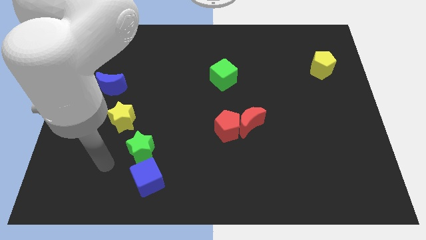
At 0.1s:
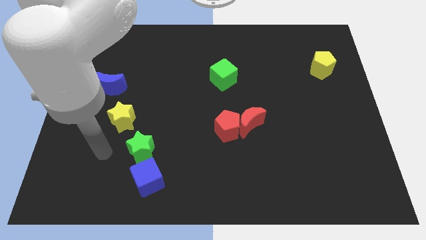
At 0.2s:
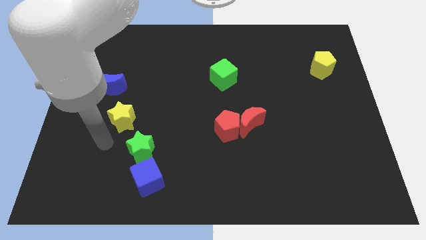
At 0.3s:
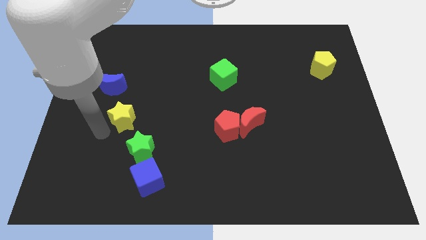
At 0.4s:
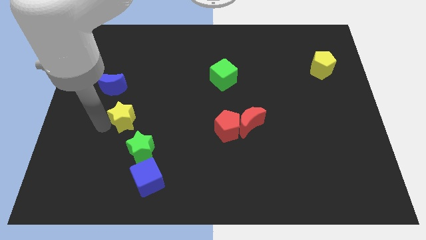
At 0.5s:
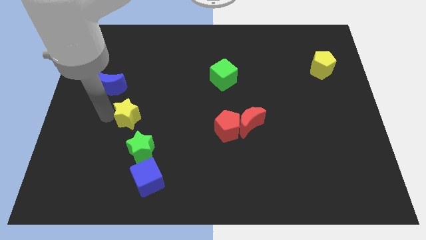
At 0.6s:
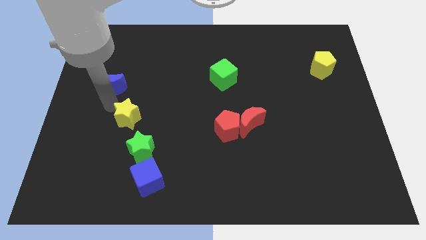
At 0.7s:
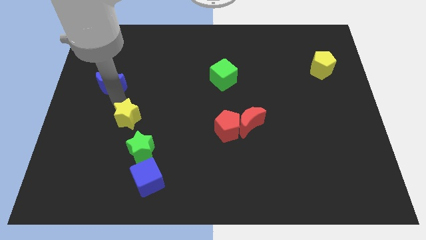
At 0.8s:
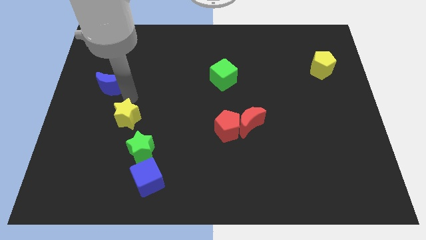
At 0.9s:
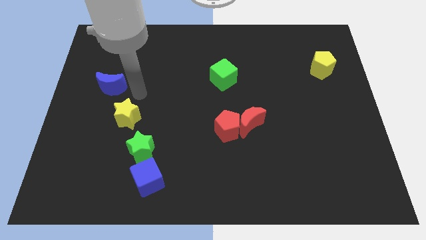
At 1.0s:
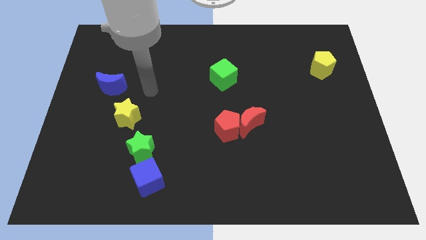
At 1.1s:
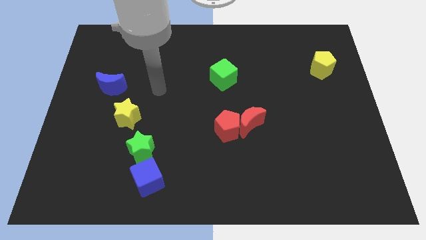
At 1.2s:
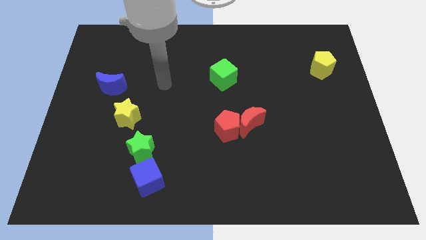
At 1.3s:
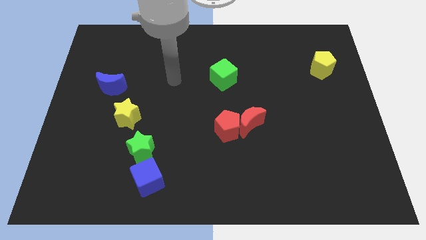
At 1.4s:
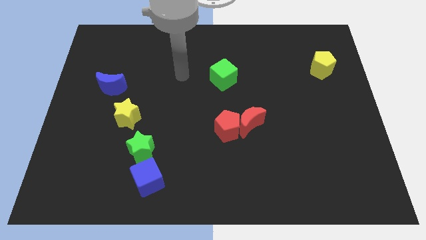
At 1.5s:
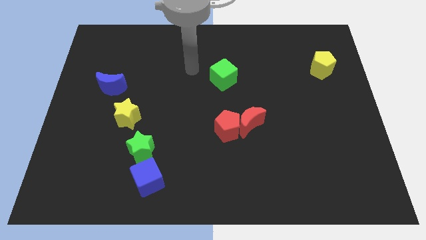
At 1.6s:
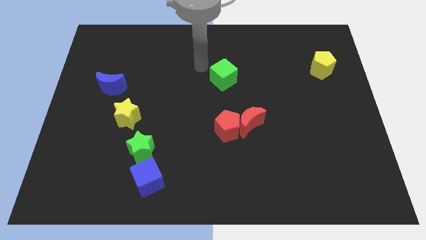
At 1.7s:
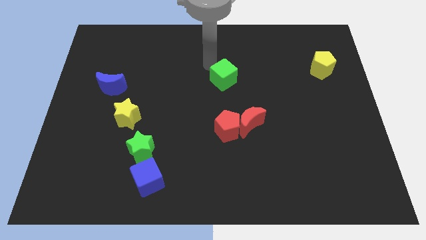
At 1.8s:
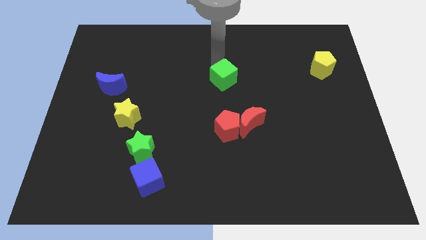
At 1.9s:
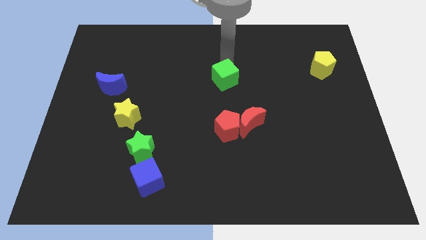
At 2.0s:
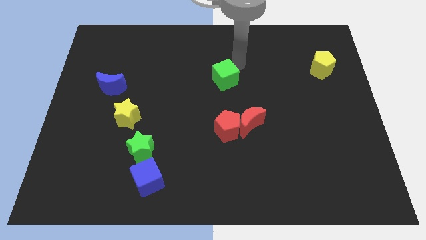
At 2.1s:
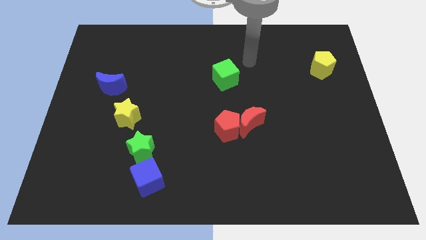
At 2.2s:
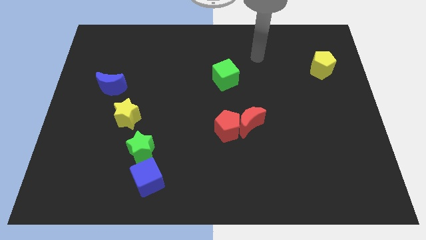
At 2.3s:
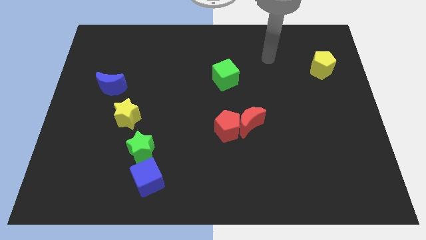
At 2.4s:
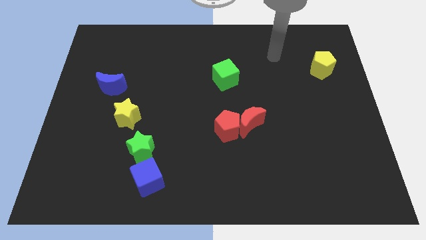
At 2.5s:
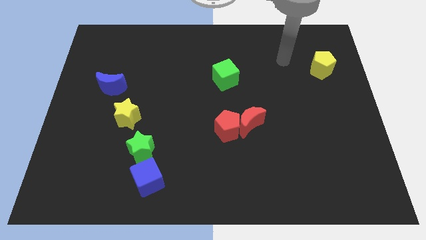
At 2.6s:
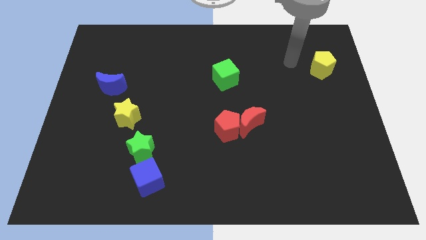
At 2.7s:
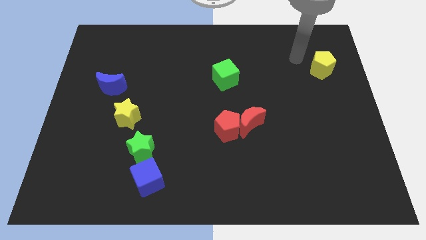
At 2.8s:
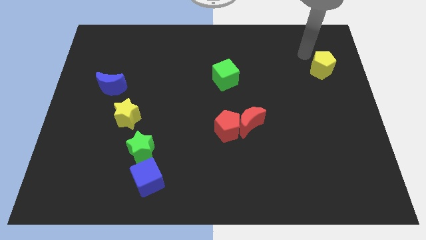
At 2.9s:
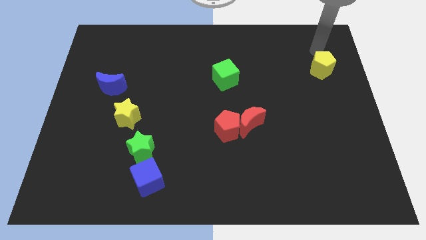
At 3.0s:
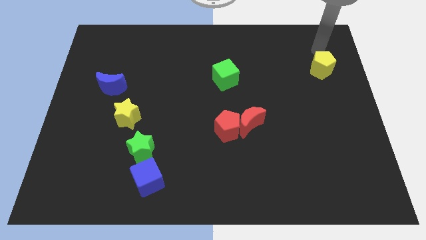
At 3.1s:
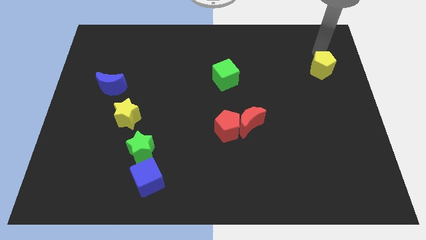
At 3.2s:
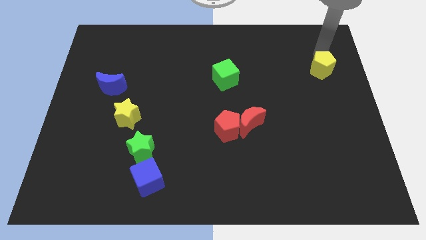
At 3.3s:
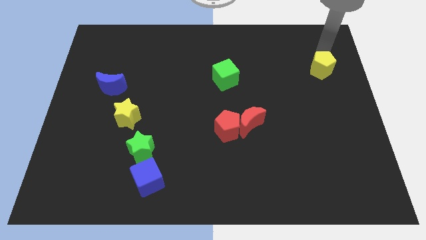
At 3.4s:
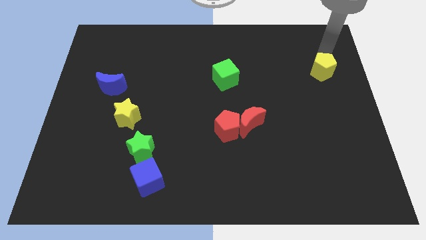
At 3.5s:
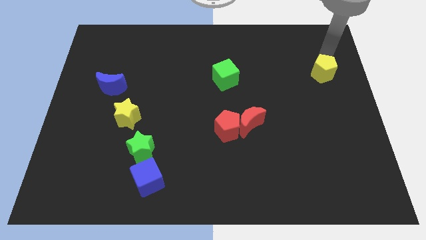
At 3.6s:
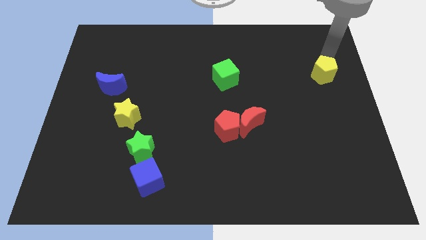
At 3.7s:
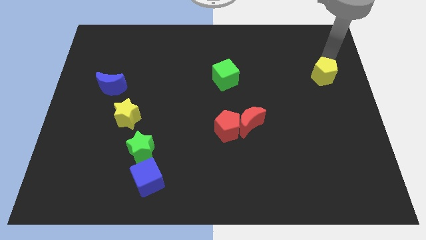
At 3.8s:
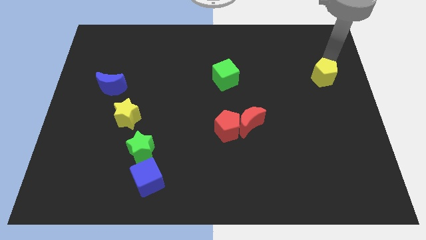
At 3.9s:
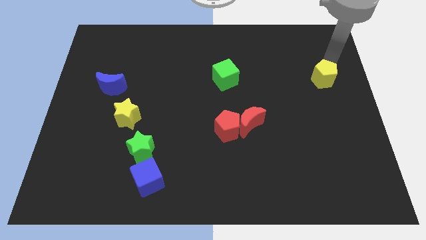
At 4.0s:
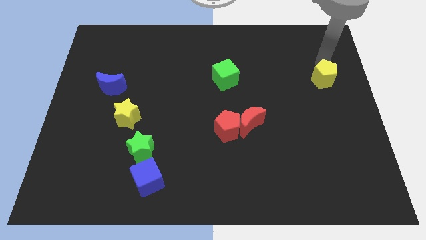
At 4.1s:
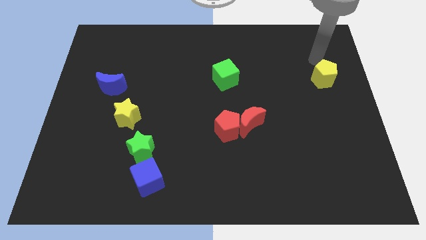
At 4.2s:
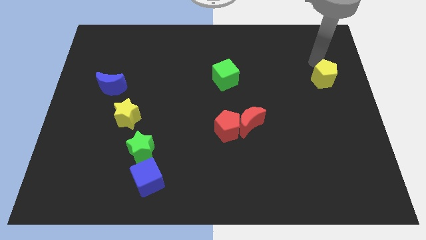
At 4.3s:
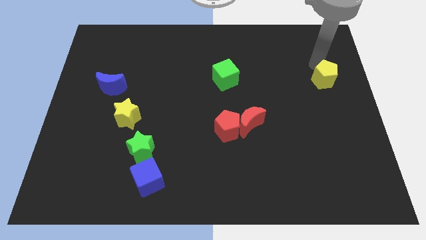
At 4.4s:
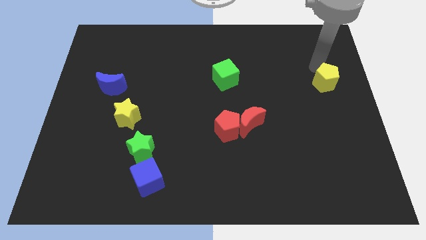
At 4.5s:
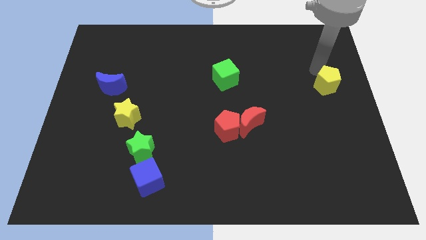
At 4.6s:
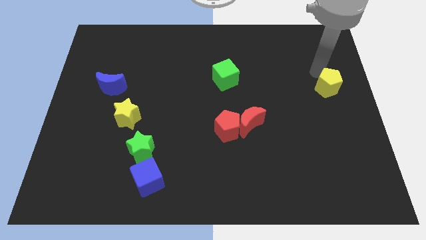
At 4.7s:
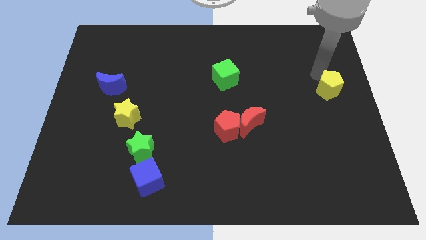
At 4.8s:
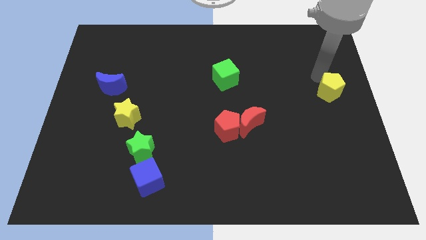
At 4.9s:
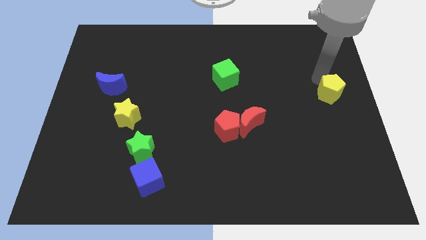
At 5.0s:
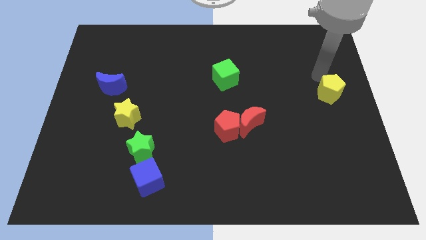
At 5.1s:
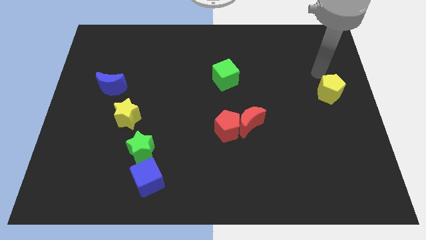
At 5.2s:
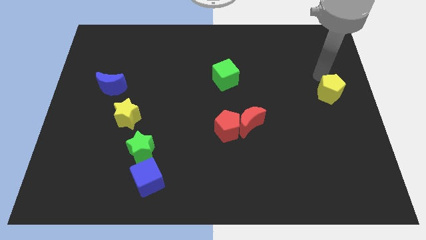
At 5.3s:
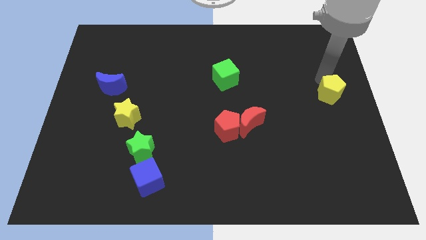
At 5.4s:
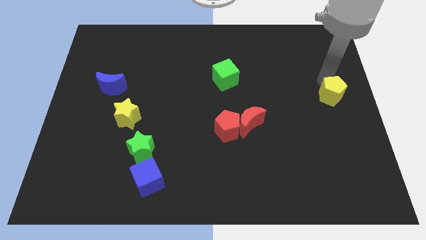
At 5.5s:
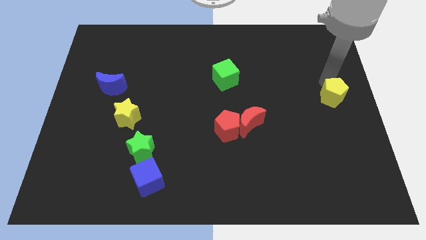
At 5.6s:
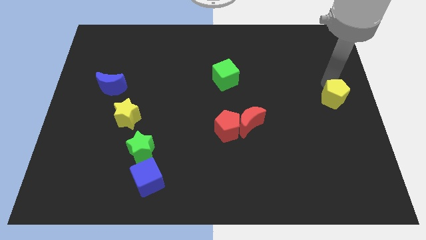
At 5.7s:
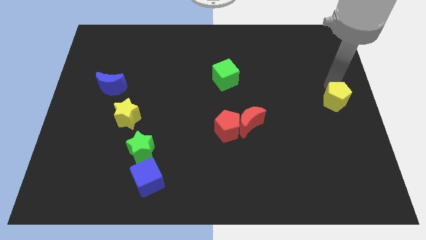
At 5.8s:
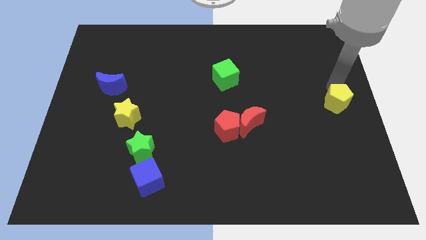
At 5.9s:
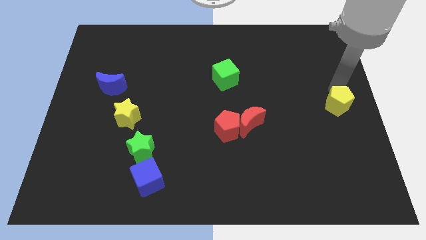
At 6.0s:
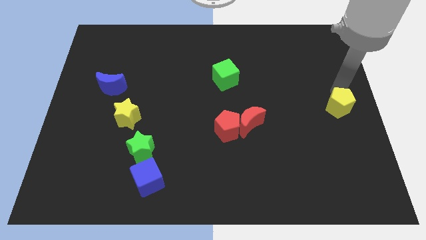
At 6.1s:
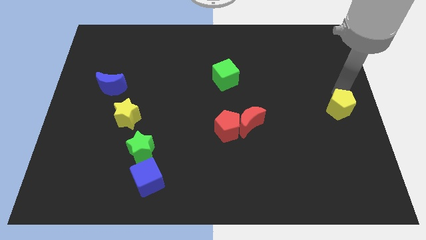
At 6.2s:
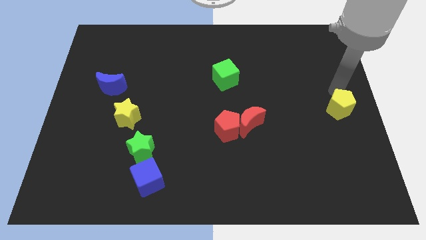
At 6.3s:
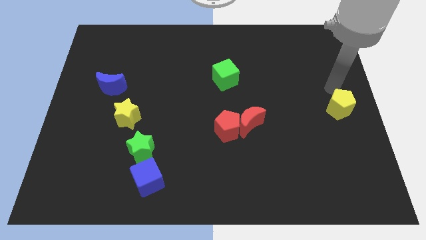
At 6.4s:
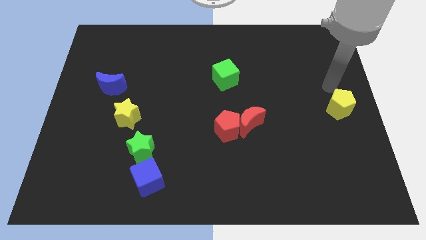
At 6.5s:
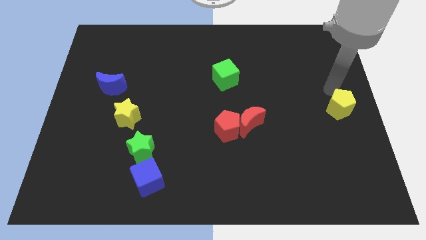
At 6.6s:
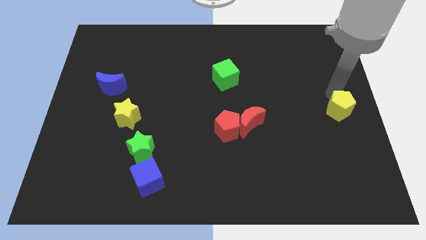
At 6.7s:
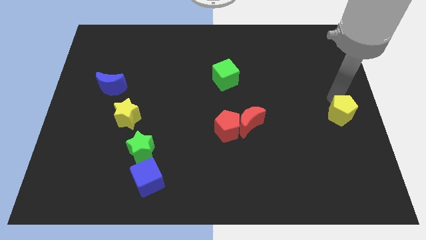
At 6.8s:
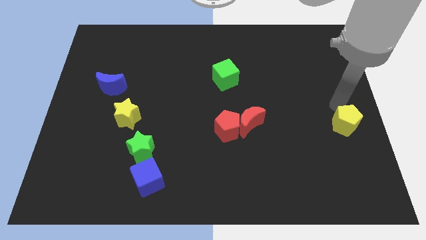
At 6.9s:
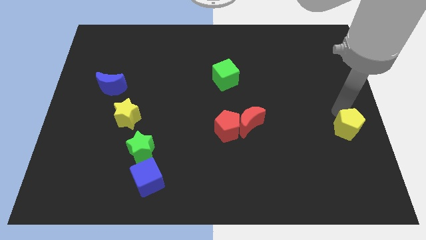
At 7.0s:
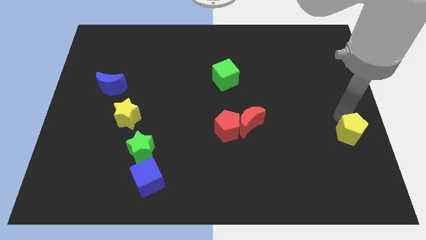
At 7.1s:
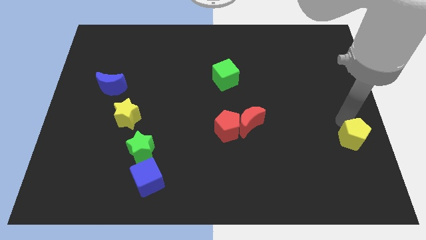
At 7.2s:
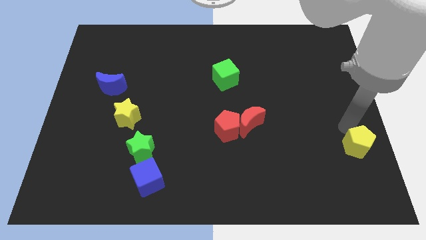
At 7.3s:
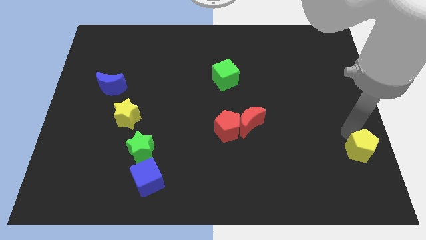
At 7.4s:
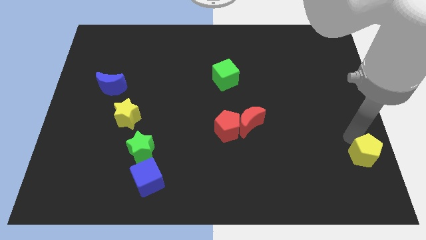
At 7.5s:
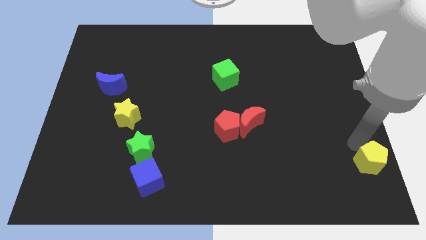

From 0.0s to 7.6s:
push the yellow pentagon to the lower right corner
